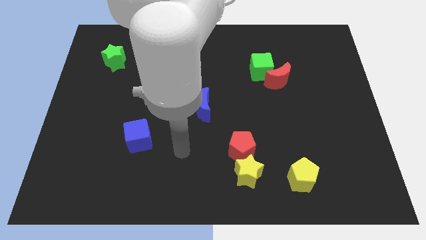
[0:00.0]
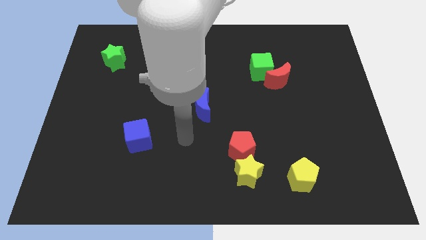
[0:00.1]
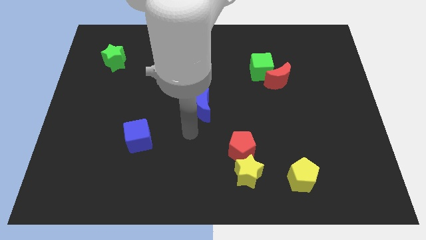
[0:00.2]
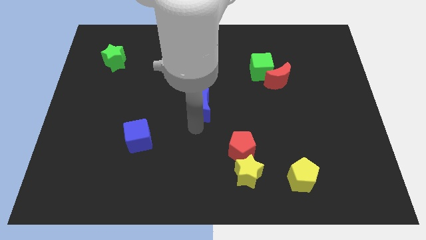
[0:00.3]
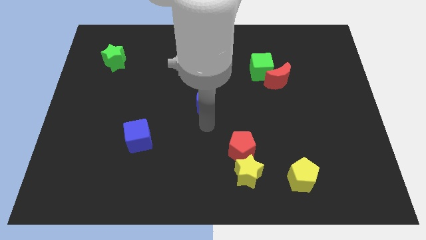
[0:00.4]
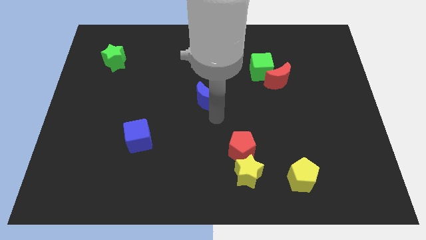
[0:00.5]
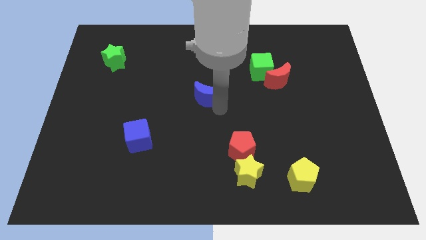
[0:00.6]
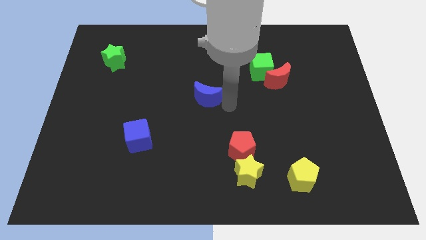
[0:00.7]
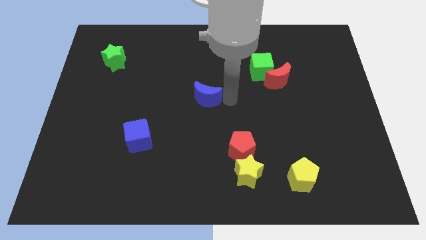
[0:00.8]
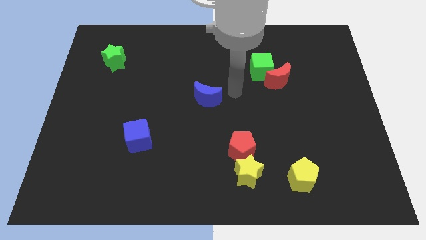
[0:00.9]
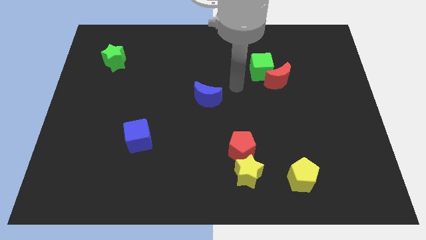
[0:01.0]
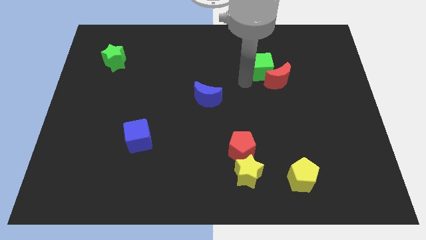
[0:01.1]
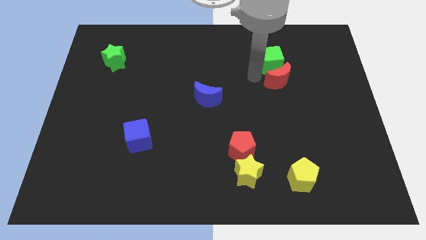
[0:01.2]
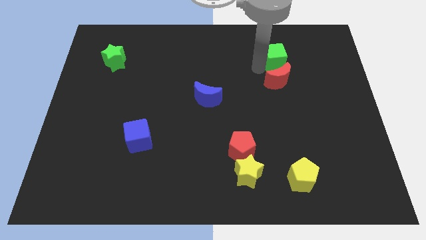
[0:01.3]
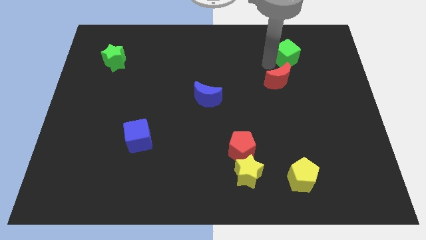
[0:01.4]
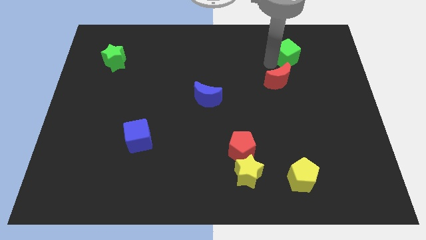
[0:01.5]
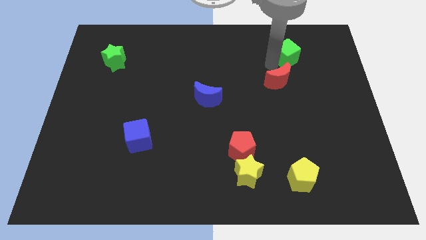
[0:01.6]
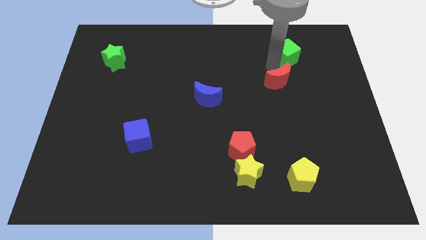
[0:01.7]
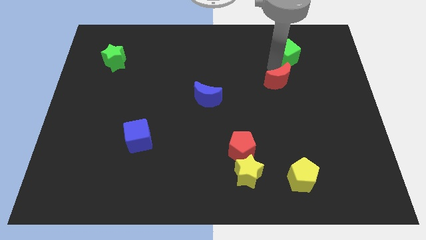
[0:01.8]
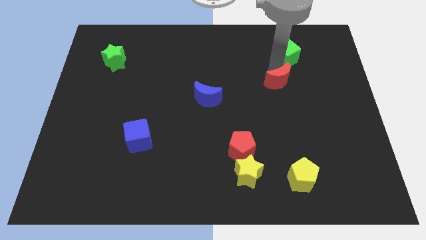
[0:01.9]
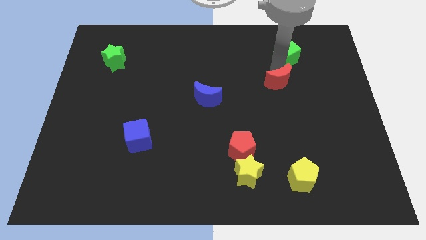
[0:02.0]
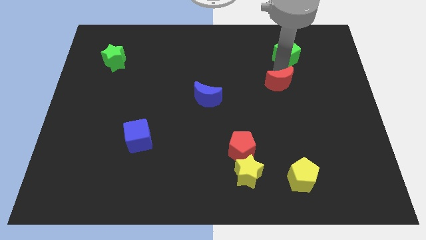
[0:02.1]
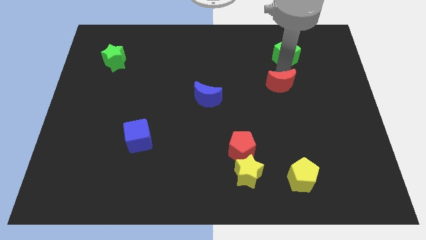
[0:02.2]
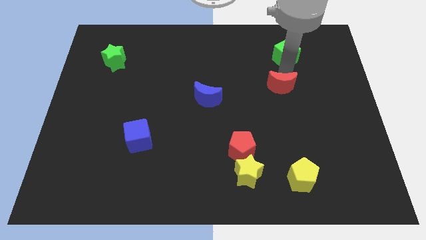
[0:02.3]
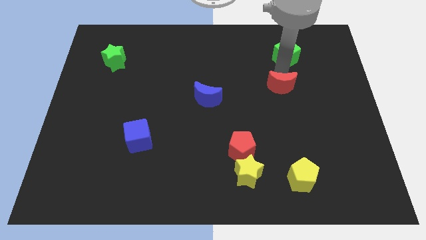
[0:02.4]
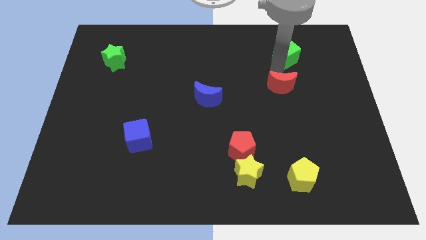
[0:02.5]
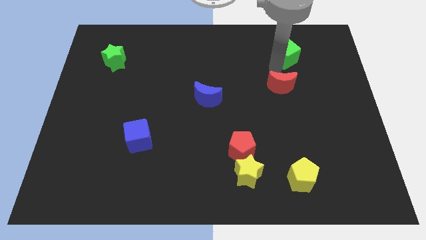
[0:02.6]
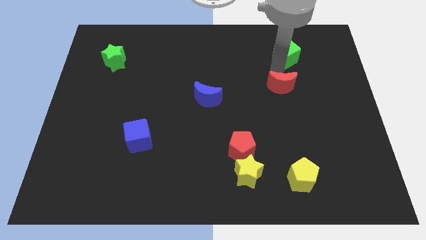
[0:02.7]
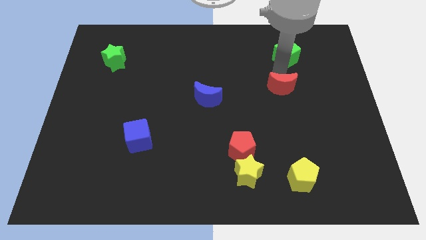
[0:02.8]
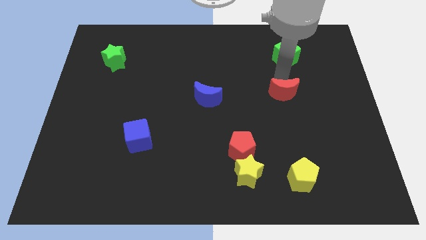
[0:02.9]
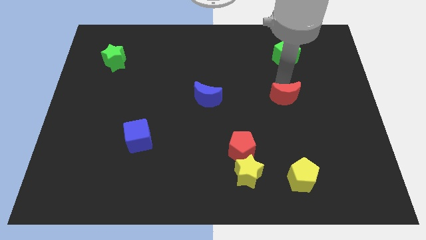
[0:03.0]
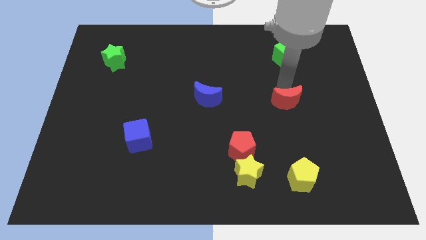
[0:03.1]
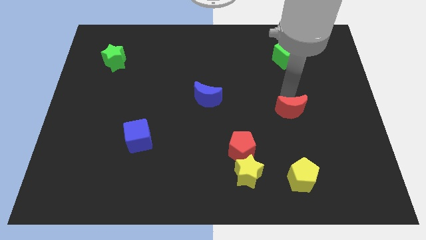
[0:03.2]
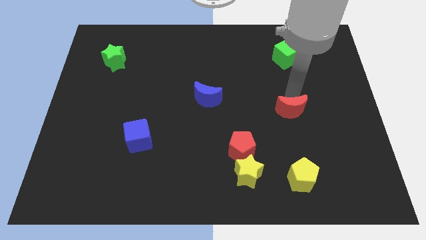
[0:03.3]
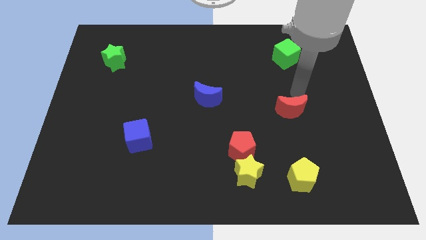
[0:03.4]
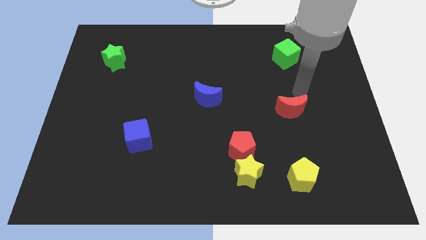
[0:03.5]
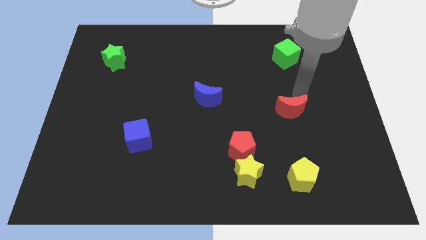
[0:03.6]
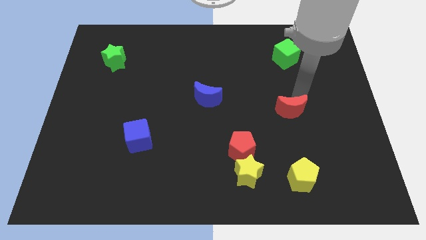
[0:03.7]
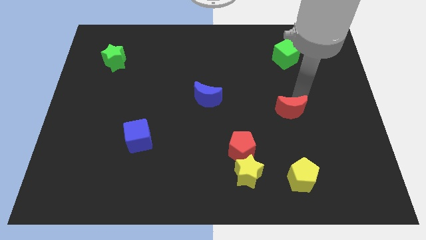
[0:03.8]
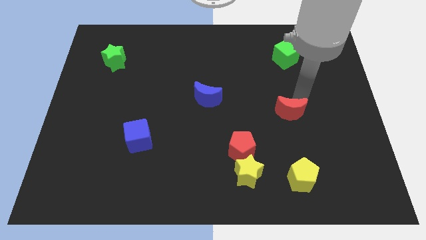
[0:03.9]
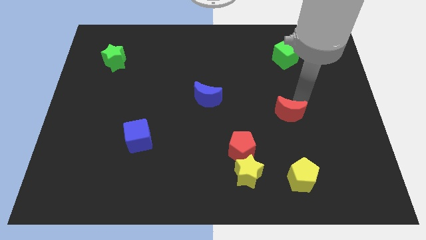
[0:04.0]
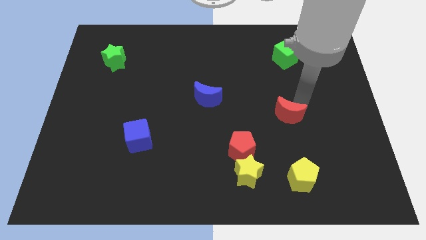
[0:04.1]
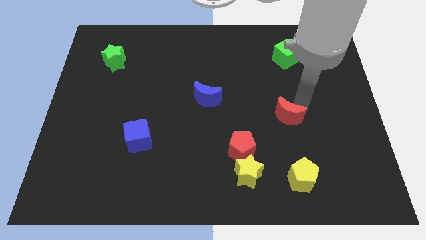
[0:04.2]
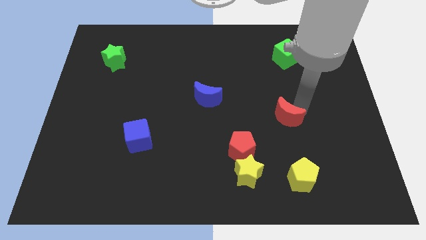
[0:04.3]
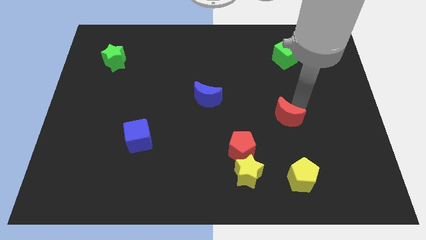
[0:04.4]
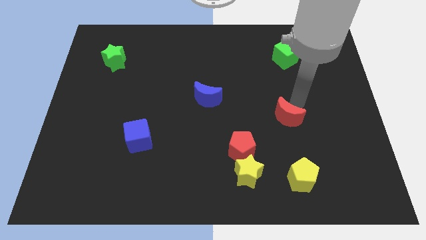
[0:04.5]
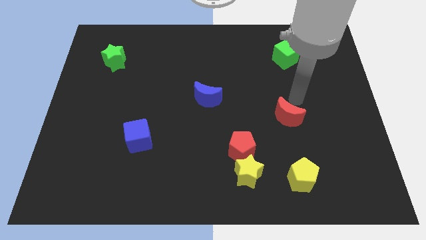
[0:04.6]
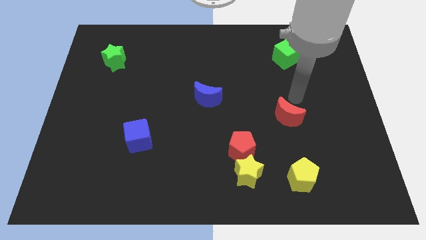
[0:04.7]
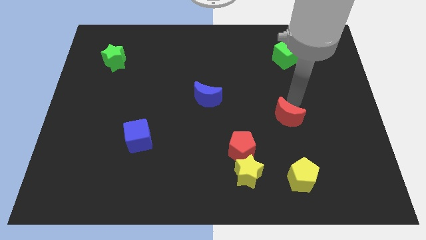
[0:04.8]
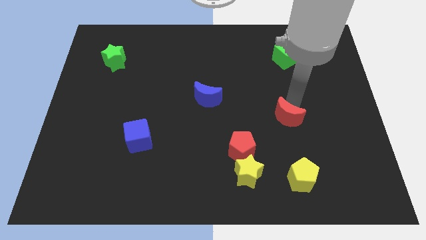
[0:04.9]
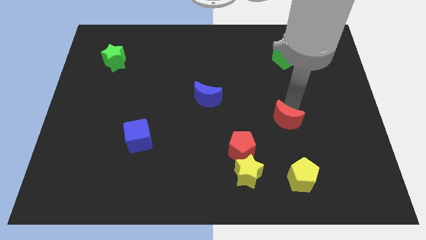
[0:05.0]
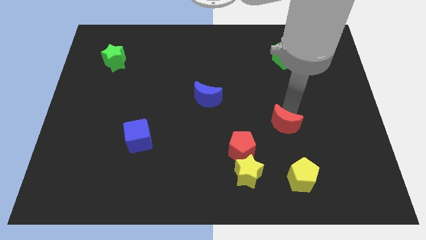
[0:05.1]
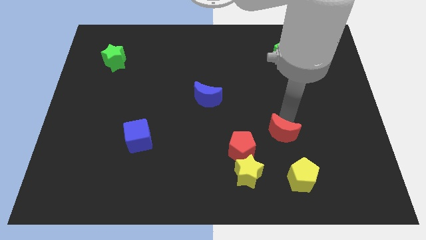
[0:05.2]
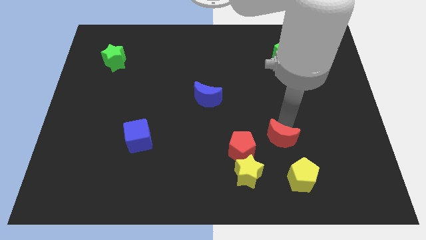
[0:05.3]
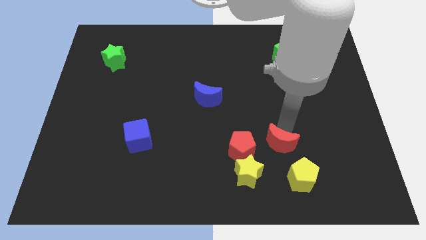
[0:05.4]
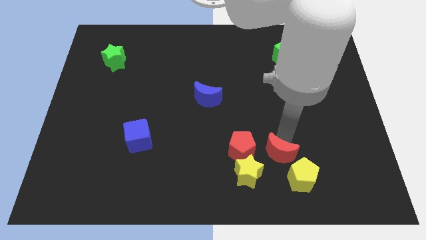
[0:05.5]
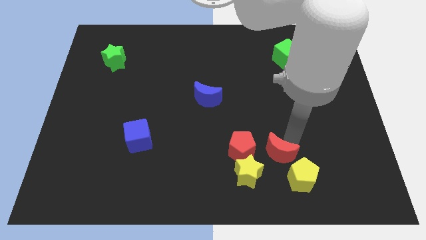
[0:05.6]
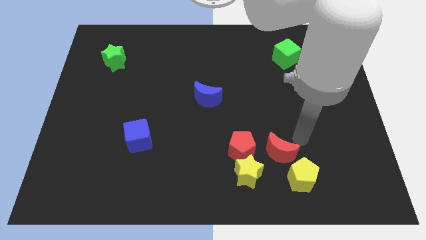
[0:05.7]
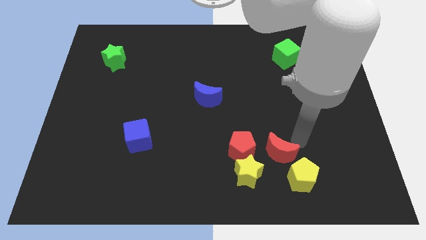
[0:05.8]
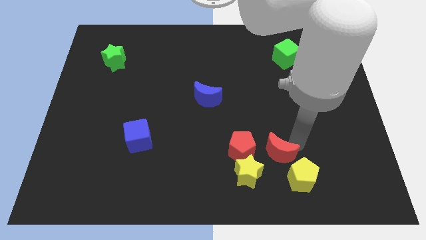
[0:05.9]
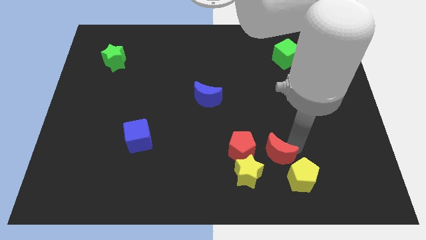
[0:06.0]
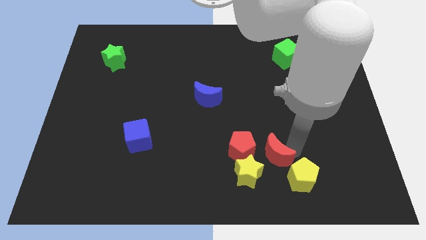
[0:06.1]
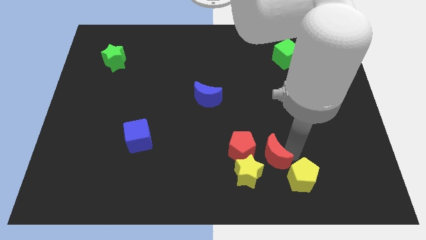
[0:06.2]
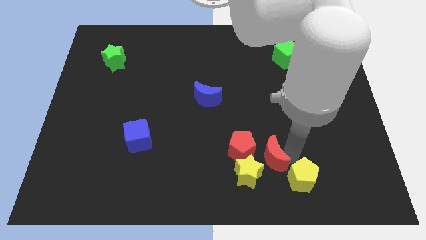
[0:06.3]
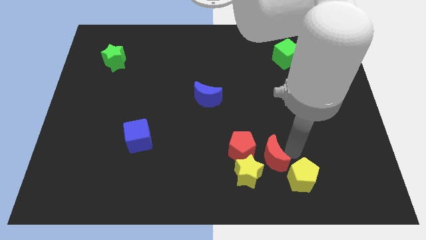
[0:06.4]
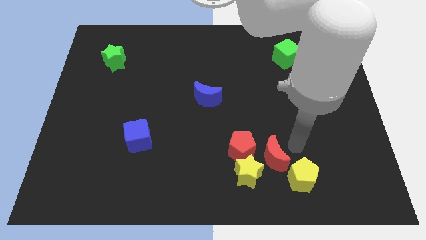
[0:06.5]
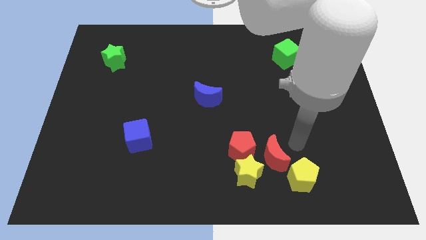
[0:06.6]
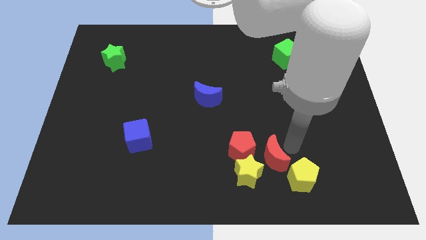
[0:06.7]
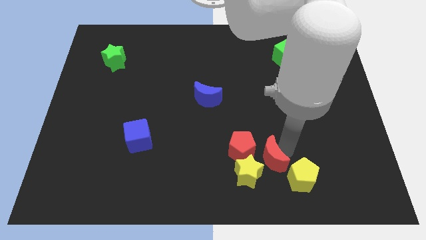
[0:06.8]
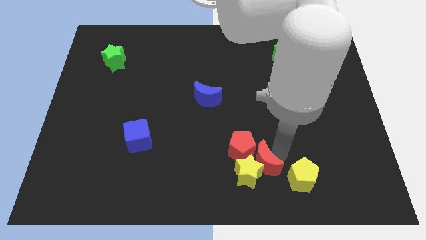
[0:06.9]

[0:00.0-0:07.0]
slide the red moon next to the yellow star

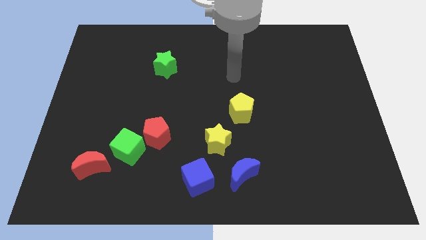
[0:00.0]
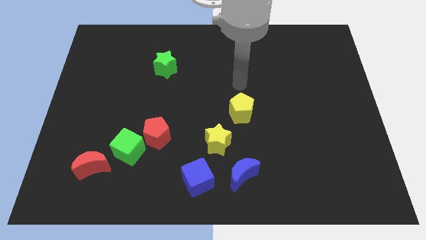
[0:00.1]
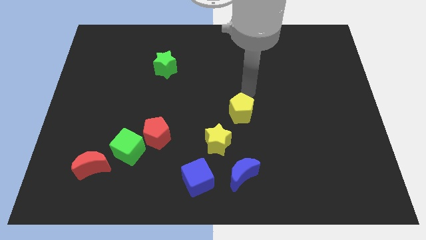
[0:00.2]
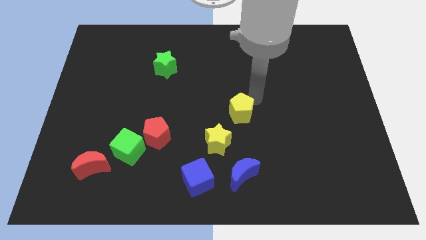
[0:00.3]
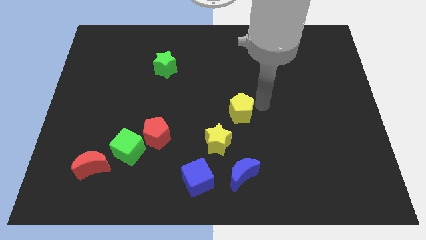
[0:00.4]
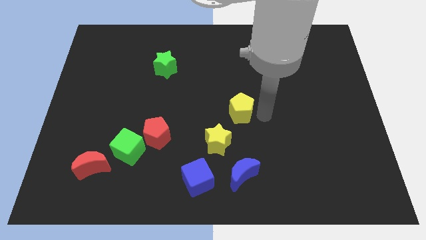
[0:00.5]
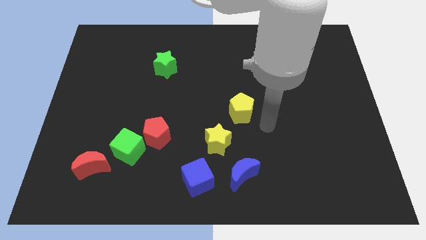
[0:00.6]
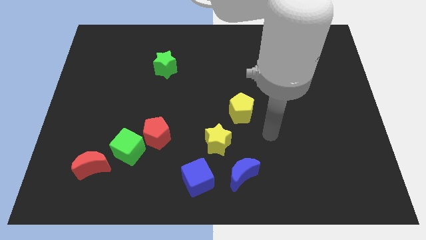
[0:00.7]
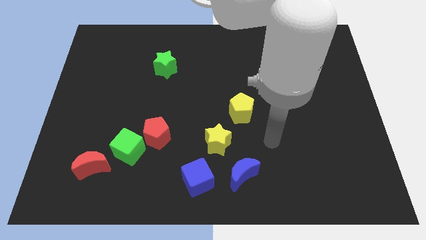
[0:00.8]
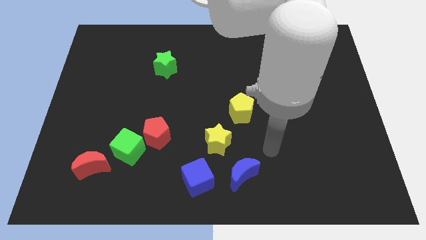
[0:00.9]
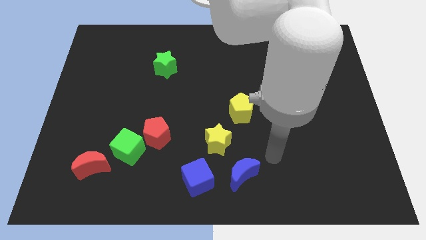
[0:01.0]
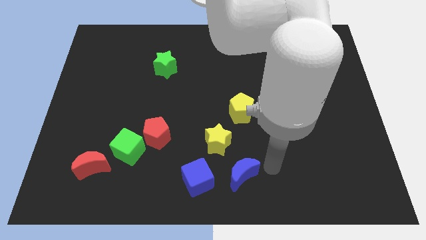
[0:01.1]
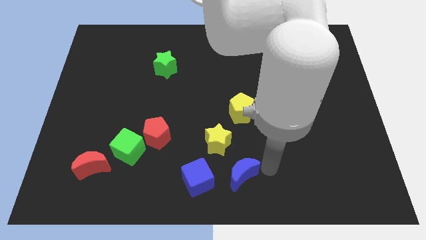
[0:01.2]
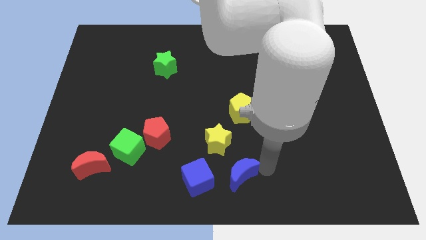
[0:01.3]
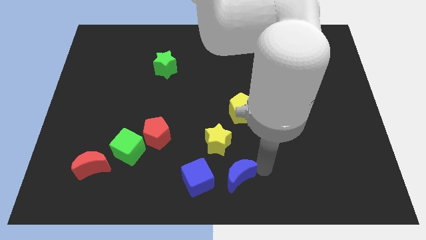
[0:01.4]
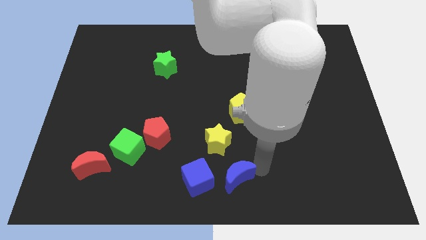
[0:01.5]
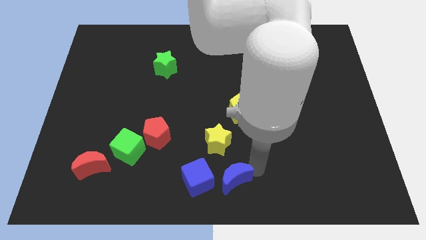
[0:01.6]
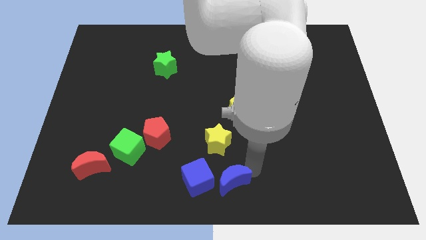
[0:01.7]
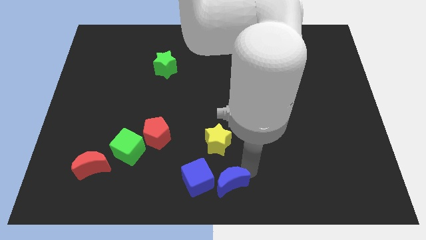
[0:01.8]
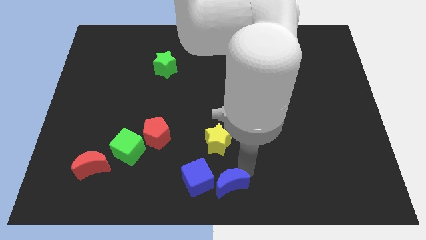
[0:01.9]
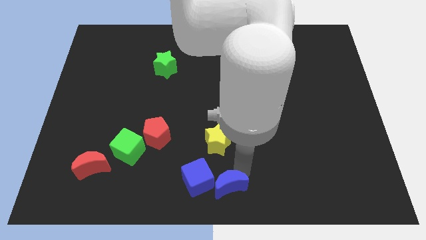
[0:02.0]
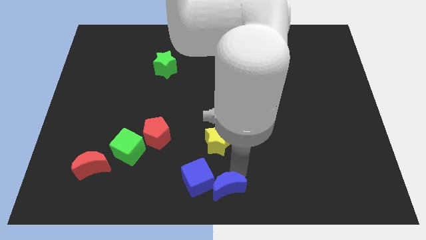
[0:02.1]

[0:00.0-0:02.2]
slide the blue moon to the blue cube
